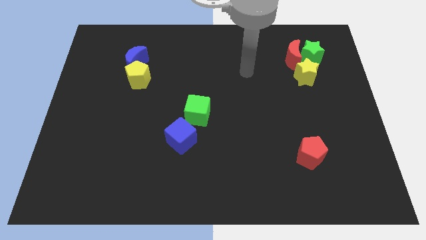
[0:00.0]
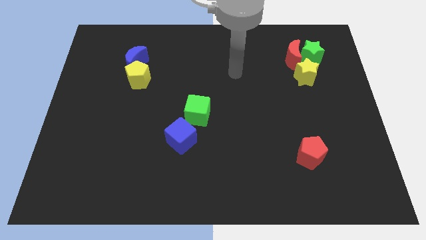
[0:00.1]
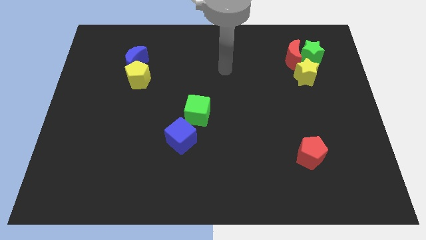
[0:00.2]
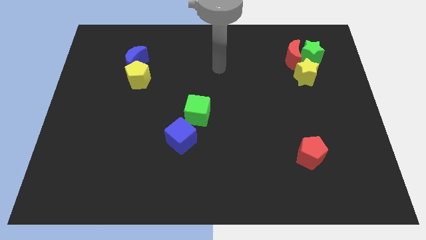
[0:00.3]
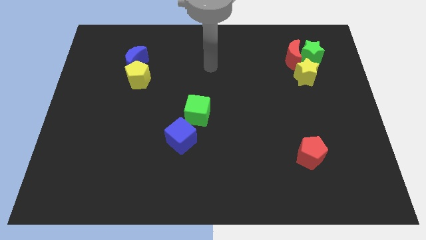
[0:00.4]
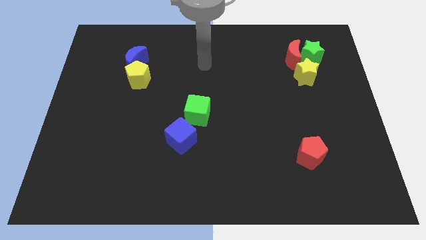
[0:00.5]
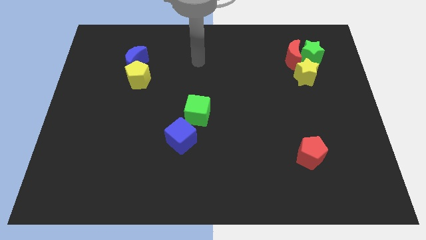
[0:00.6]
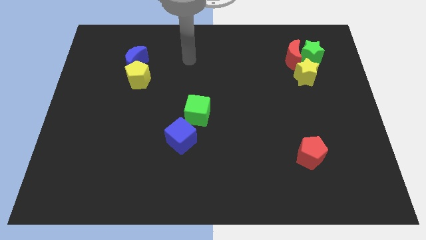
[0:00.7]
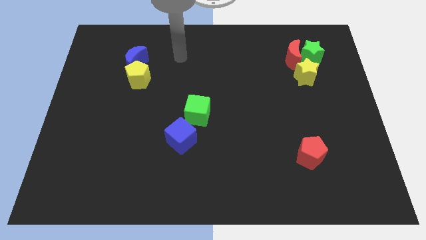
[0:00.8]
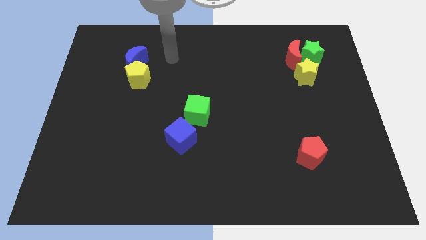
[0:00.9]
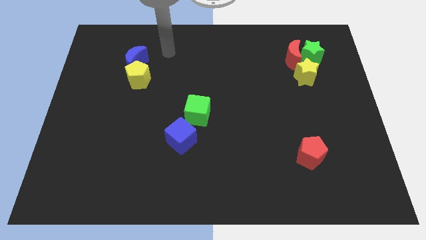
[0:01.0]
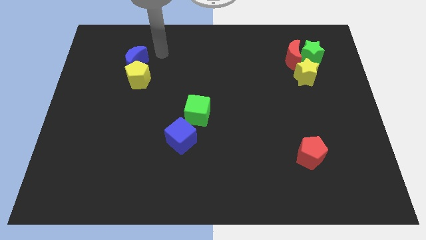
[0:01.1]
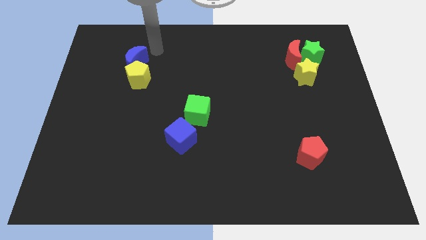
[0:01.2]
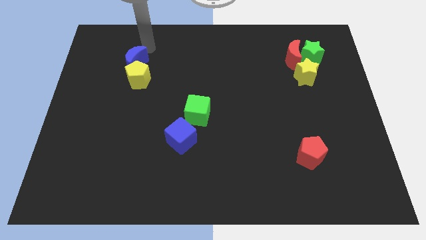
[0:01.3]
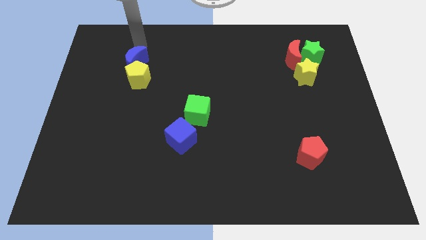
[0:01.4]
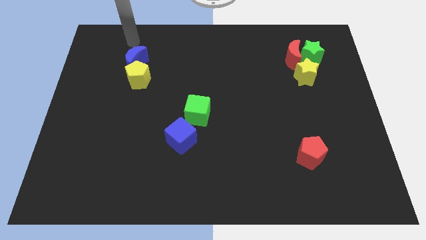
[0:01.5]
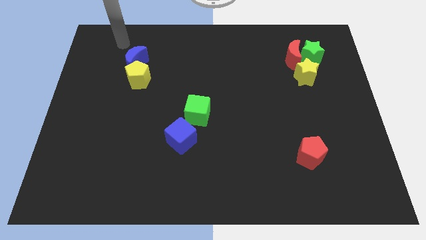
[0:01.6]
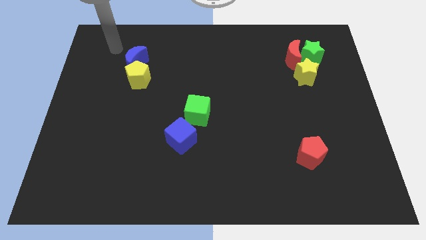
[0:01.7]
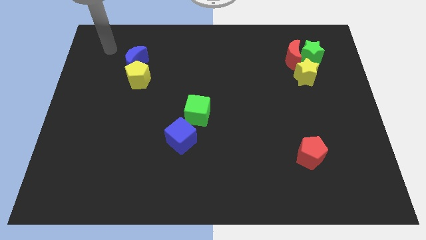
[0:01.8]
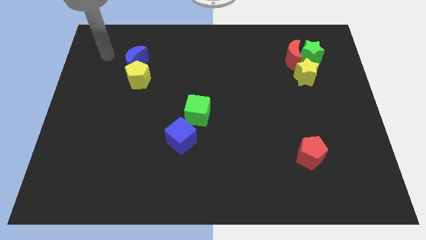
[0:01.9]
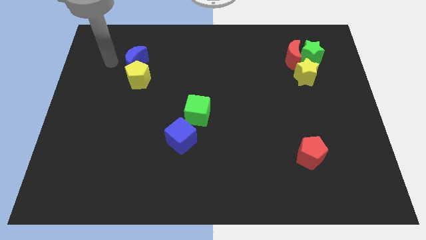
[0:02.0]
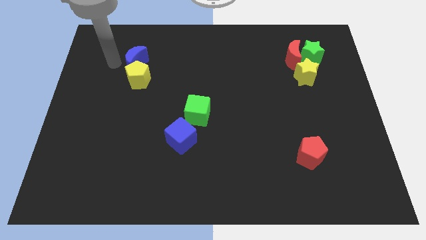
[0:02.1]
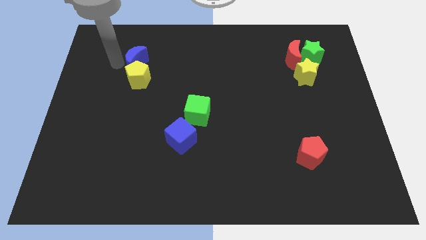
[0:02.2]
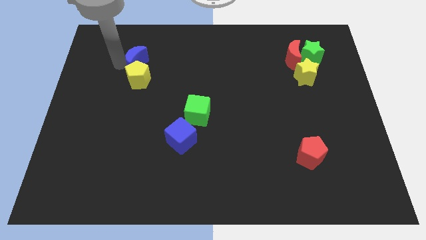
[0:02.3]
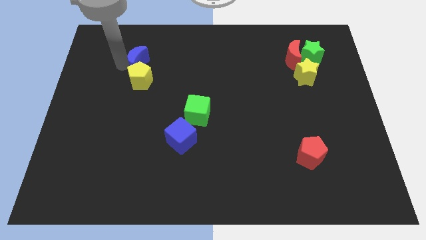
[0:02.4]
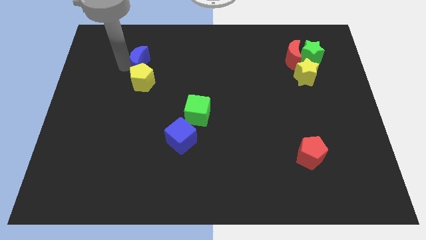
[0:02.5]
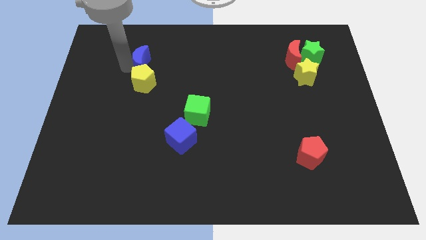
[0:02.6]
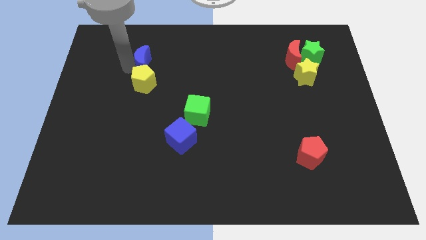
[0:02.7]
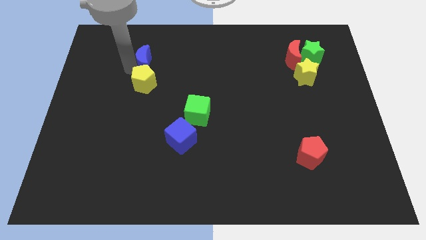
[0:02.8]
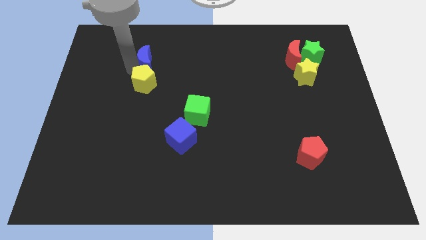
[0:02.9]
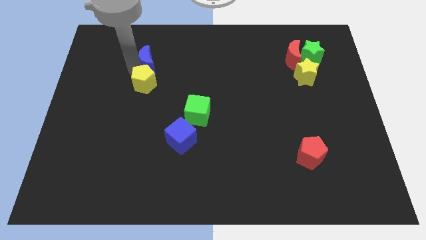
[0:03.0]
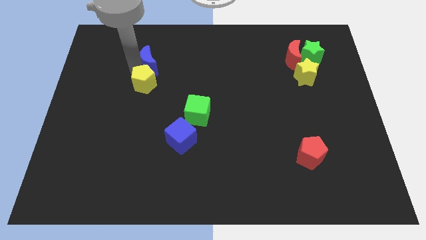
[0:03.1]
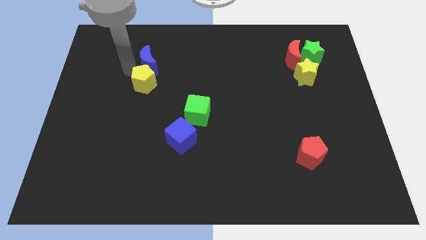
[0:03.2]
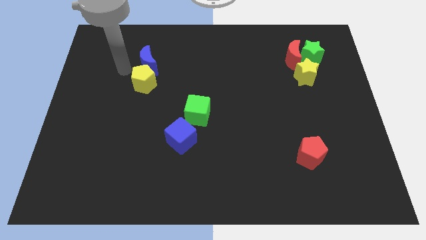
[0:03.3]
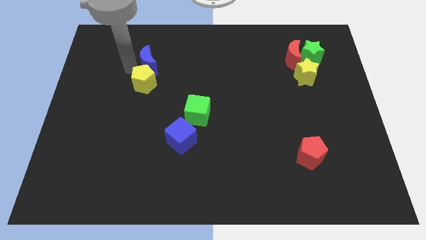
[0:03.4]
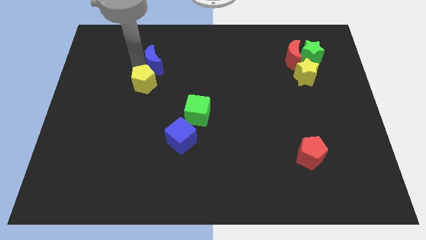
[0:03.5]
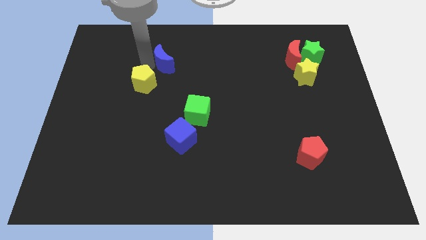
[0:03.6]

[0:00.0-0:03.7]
move the blue moon somewhat to the right

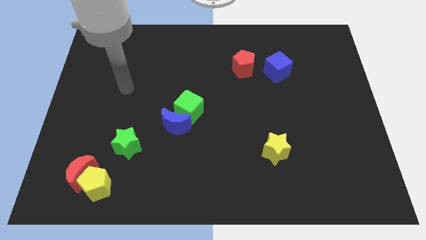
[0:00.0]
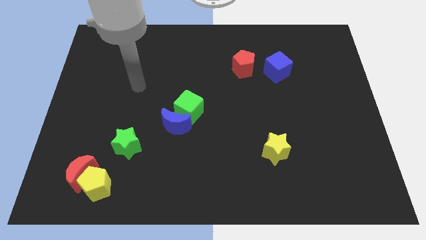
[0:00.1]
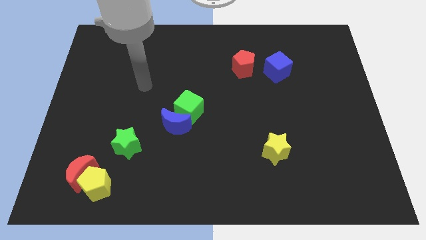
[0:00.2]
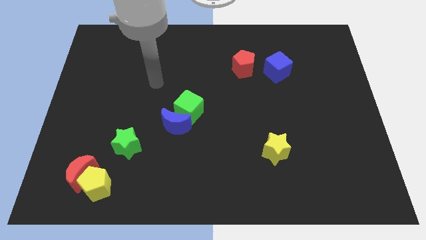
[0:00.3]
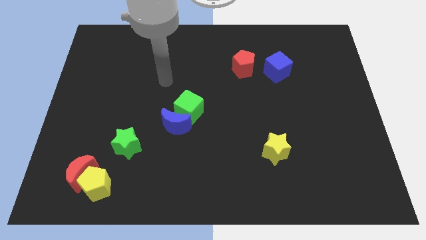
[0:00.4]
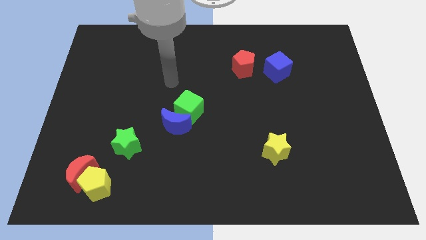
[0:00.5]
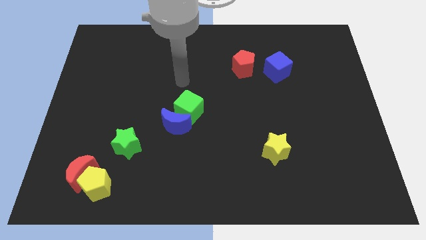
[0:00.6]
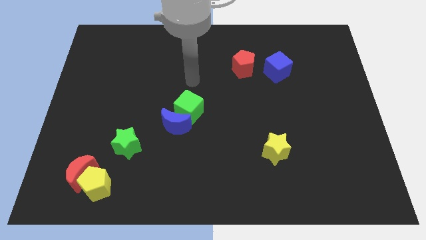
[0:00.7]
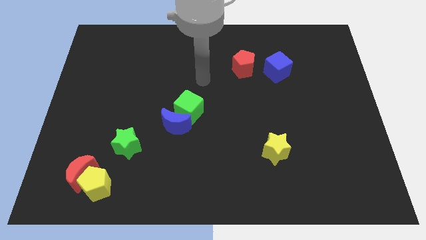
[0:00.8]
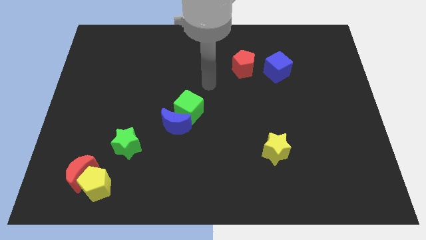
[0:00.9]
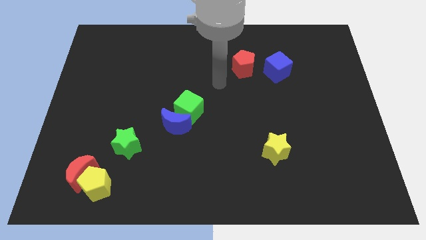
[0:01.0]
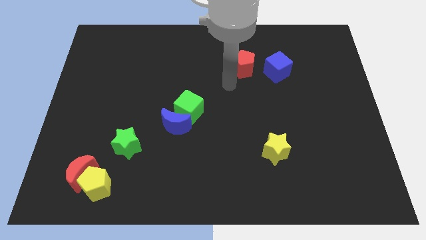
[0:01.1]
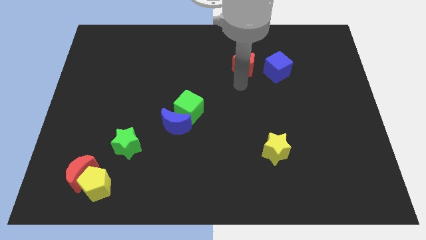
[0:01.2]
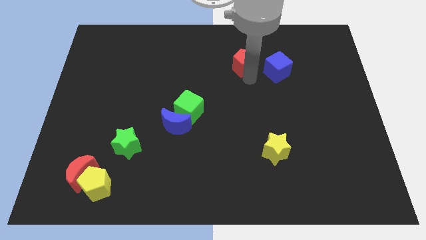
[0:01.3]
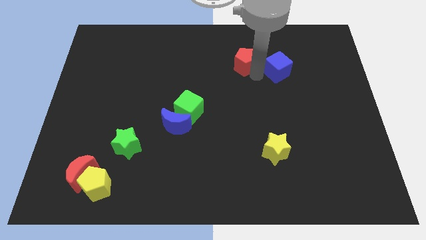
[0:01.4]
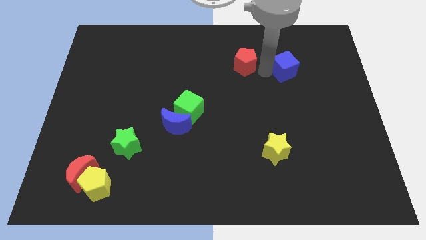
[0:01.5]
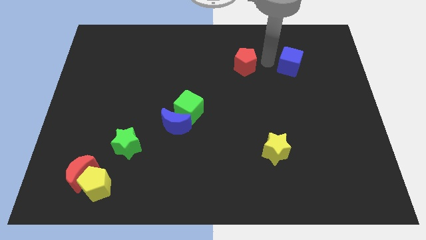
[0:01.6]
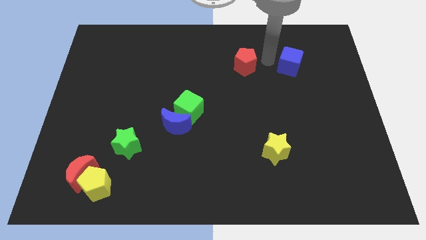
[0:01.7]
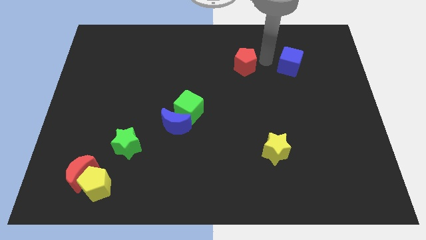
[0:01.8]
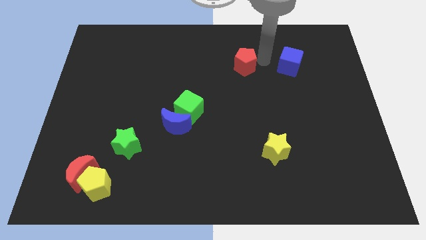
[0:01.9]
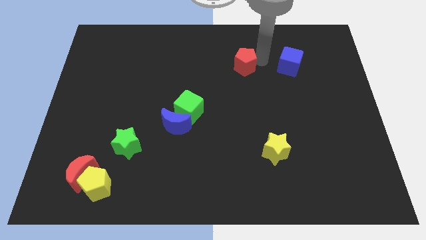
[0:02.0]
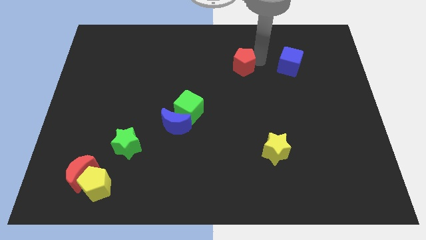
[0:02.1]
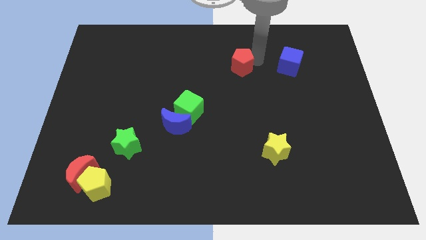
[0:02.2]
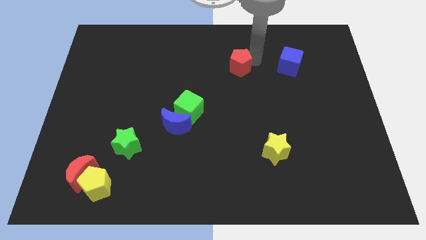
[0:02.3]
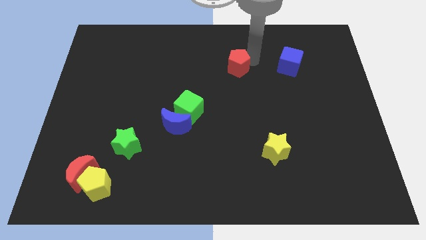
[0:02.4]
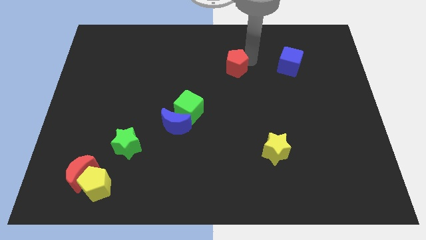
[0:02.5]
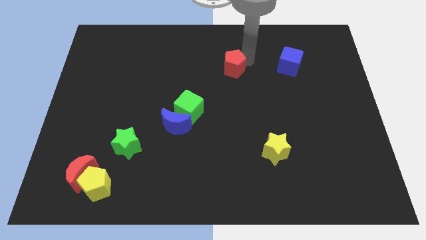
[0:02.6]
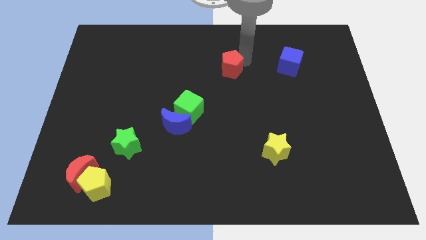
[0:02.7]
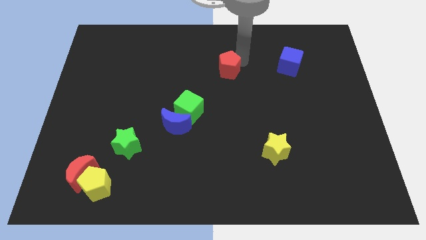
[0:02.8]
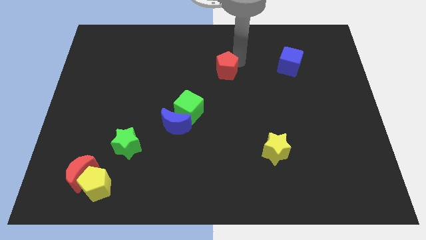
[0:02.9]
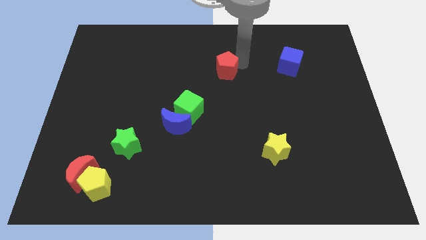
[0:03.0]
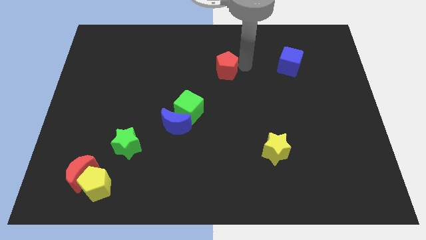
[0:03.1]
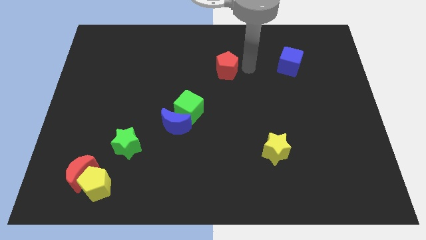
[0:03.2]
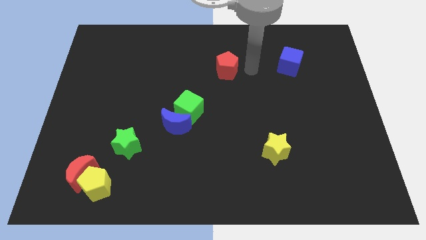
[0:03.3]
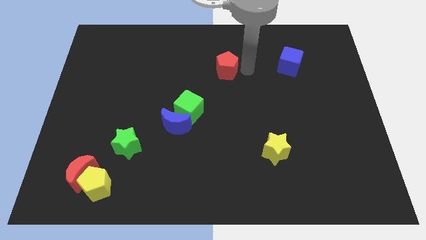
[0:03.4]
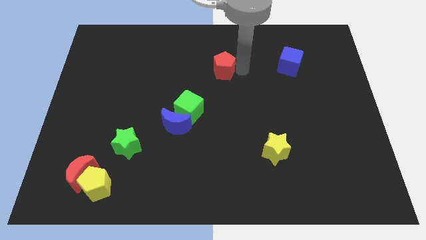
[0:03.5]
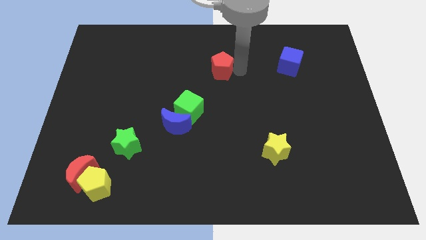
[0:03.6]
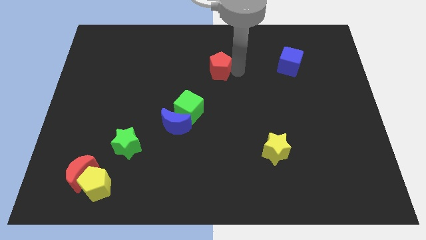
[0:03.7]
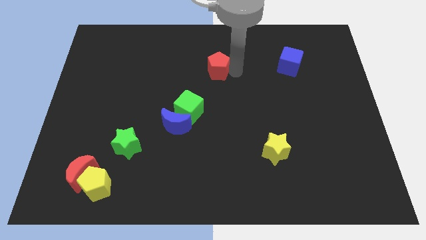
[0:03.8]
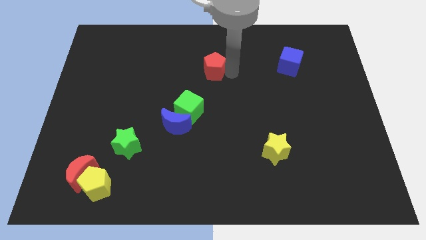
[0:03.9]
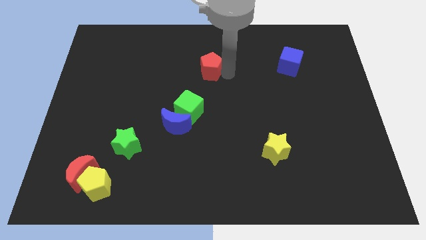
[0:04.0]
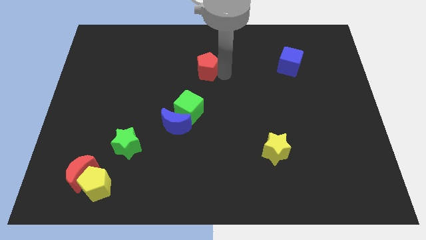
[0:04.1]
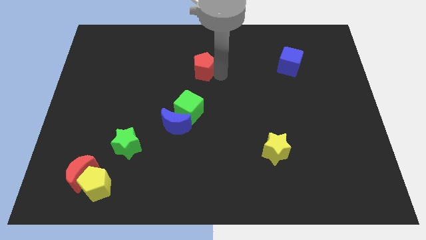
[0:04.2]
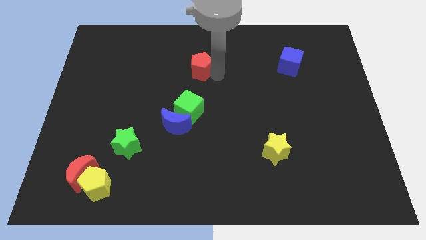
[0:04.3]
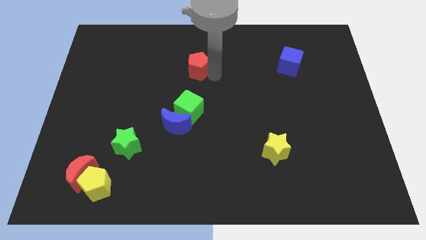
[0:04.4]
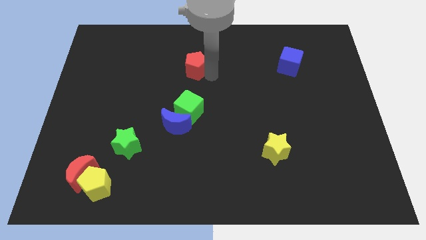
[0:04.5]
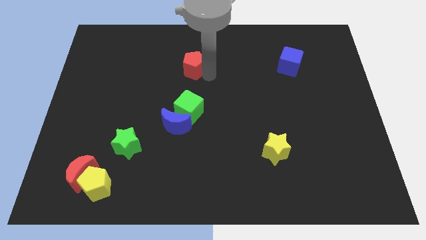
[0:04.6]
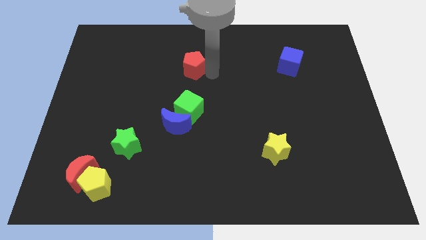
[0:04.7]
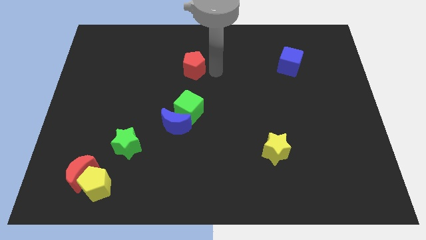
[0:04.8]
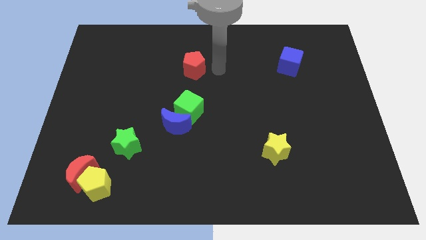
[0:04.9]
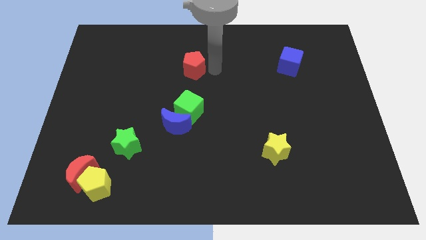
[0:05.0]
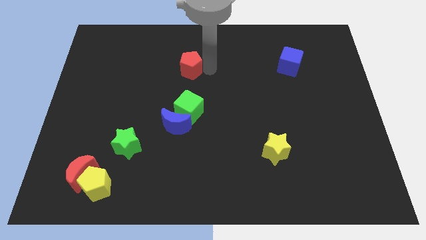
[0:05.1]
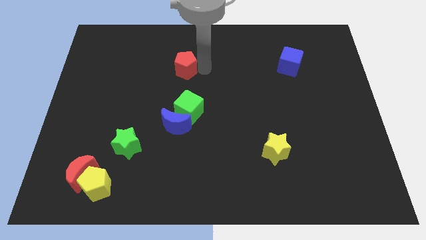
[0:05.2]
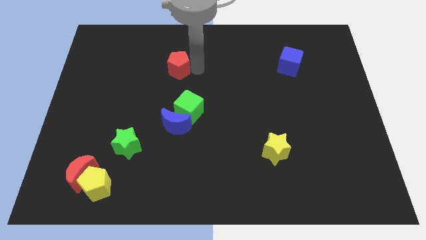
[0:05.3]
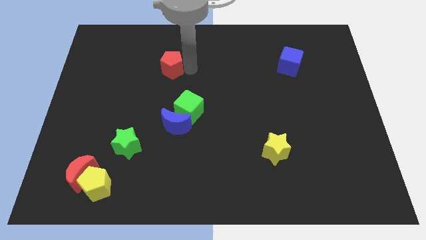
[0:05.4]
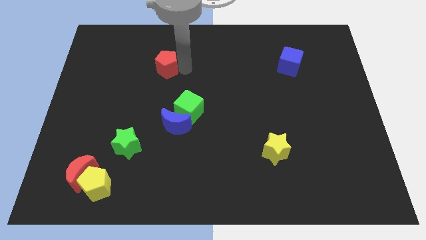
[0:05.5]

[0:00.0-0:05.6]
push the red pentagon to the left
